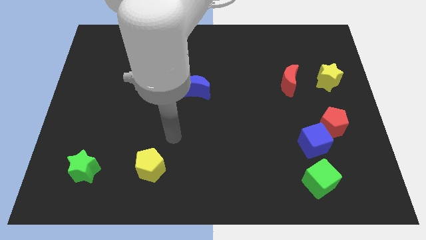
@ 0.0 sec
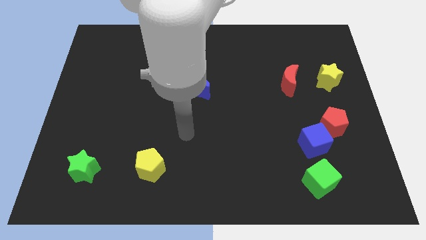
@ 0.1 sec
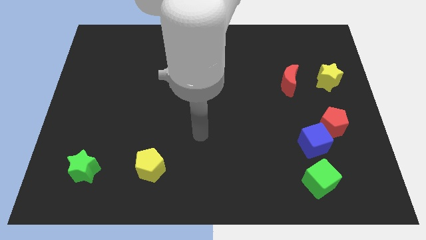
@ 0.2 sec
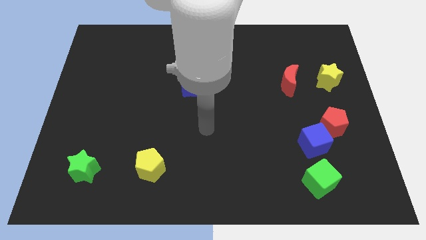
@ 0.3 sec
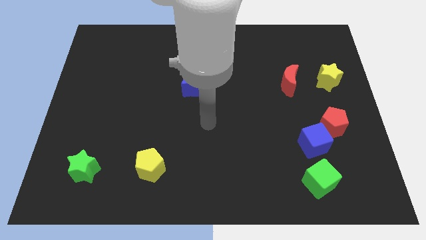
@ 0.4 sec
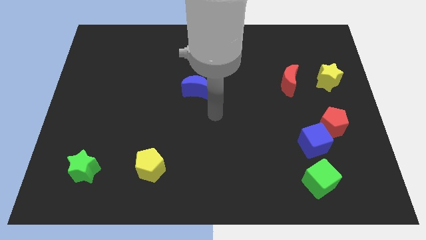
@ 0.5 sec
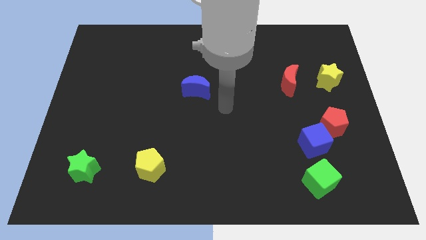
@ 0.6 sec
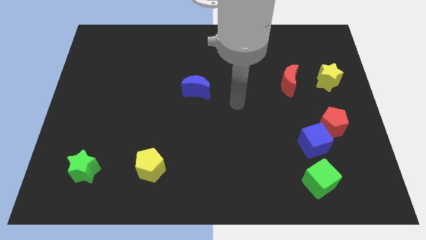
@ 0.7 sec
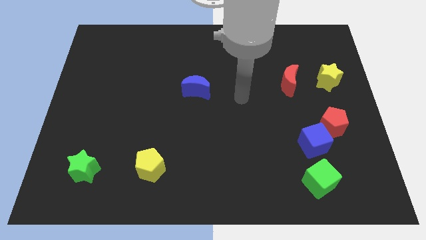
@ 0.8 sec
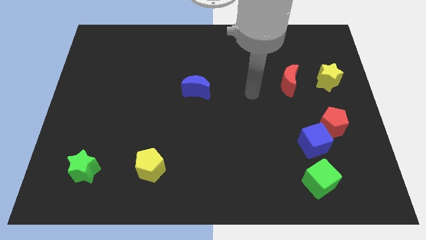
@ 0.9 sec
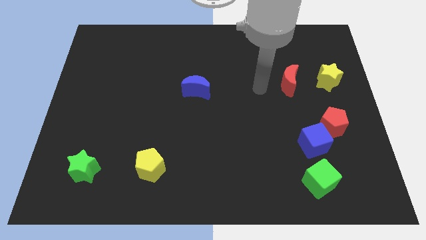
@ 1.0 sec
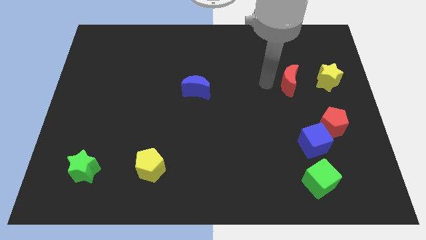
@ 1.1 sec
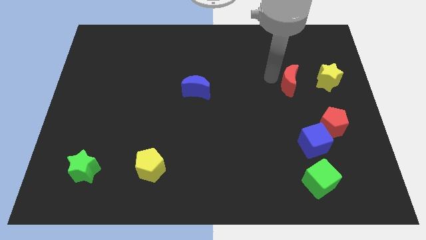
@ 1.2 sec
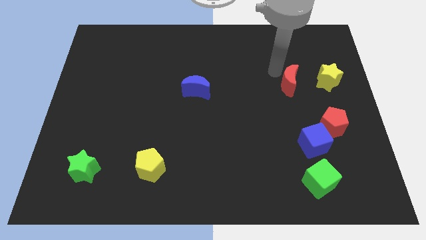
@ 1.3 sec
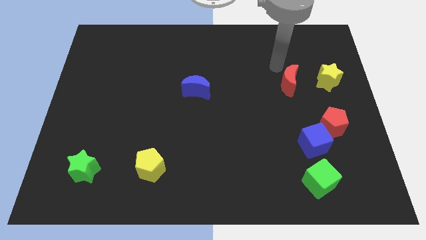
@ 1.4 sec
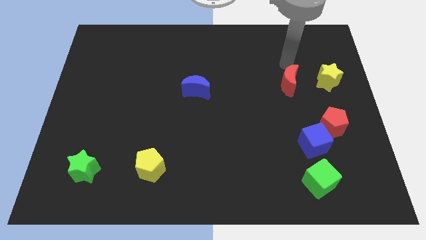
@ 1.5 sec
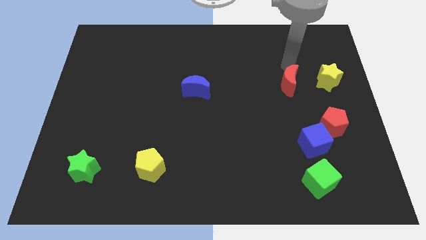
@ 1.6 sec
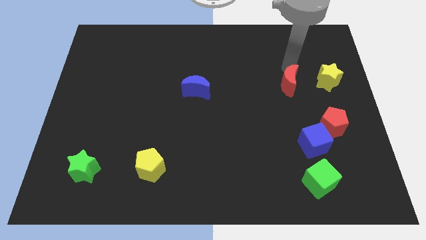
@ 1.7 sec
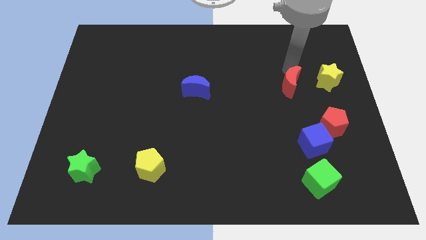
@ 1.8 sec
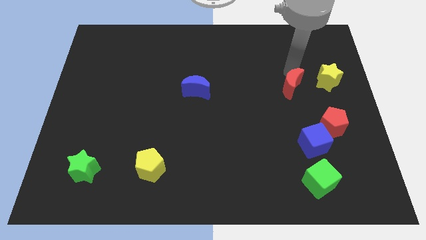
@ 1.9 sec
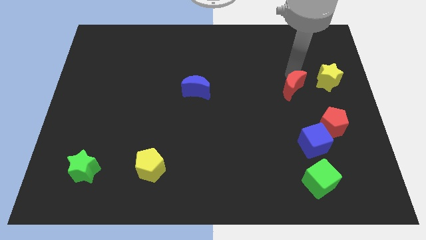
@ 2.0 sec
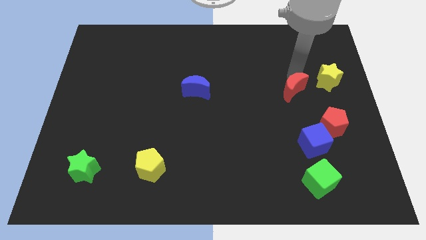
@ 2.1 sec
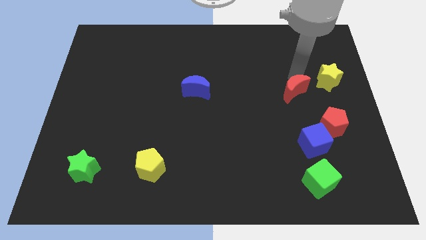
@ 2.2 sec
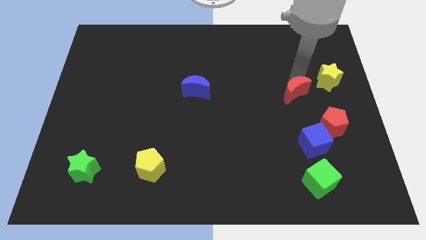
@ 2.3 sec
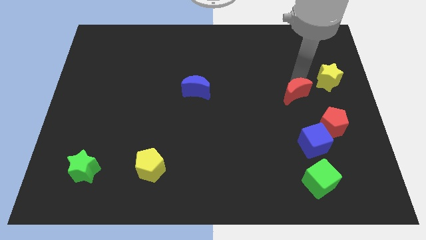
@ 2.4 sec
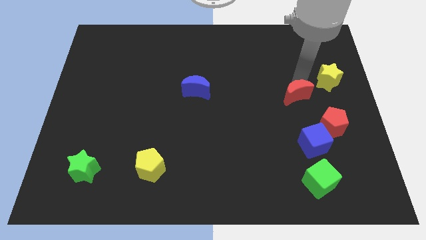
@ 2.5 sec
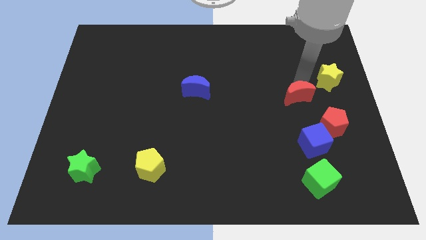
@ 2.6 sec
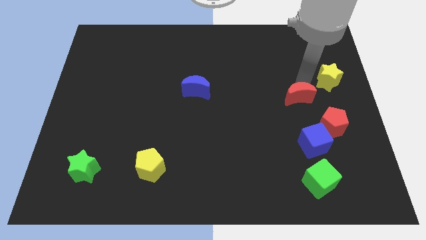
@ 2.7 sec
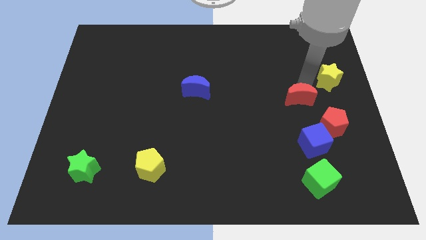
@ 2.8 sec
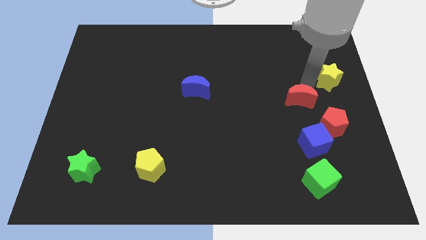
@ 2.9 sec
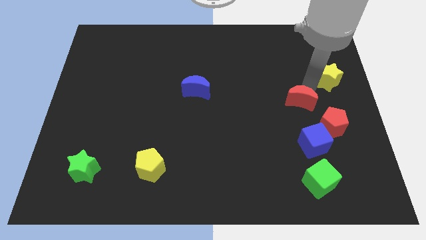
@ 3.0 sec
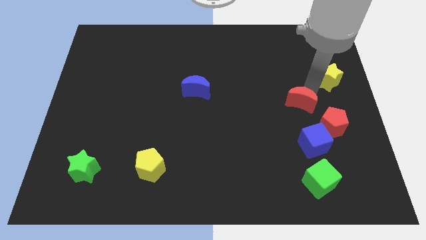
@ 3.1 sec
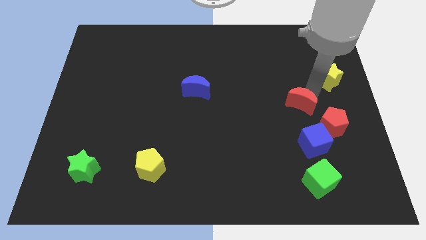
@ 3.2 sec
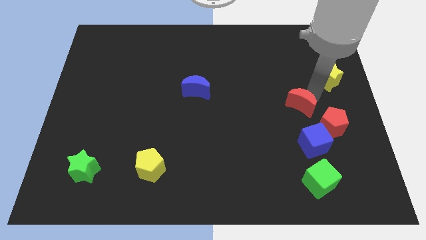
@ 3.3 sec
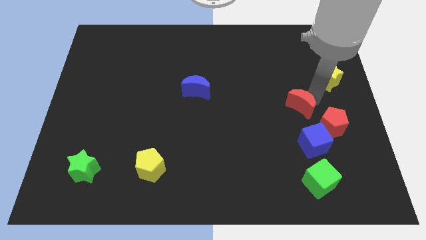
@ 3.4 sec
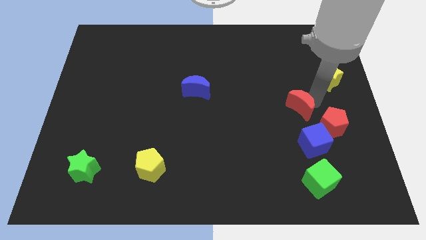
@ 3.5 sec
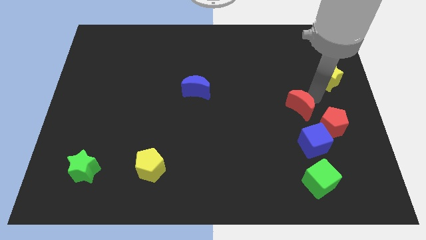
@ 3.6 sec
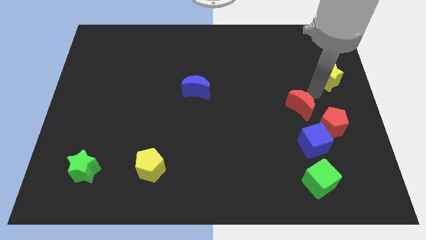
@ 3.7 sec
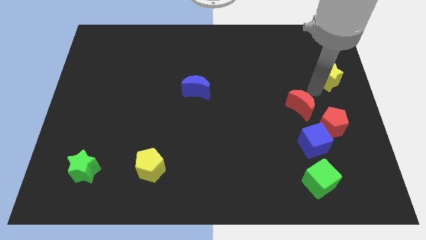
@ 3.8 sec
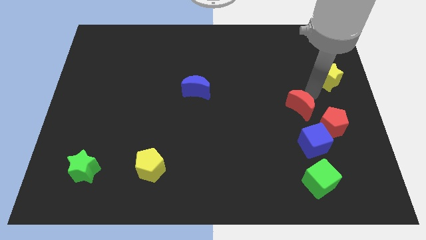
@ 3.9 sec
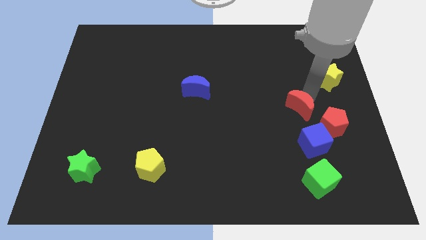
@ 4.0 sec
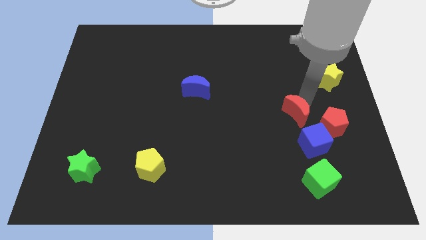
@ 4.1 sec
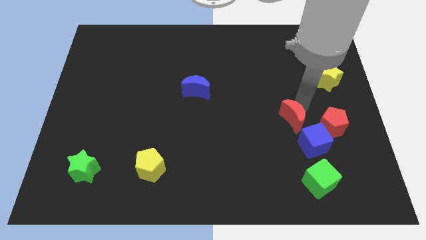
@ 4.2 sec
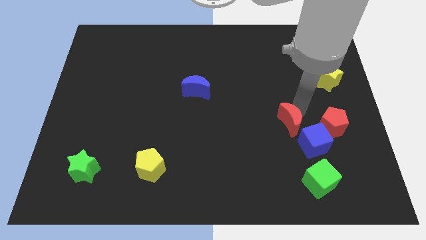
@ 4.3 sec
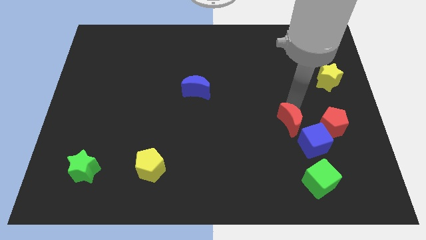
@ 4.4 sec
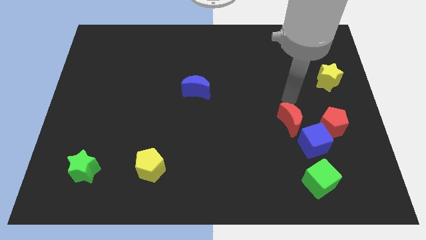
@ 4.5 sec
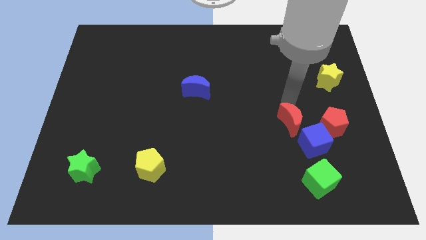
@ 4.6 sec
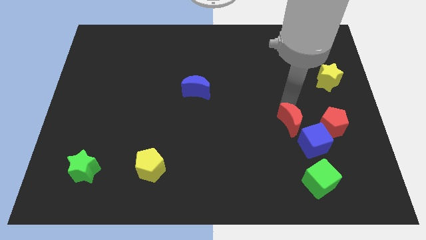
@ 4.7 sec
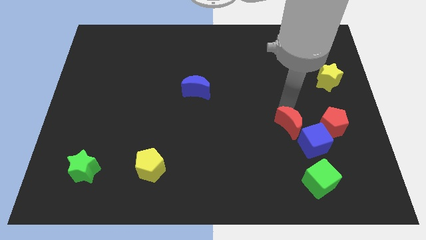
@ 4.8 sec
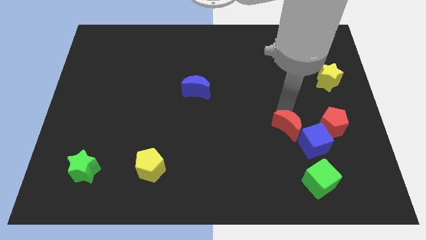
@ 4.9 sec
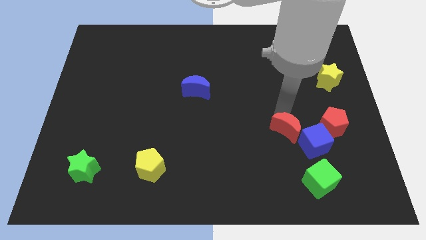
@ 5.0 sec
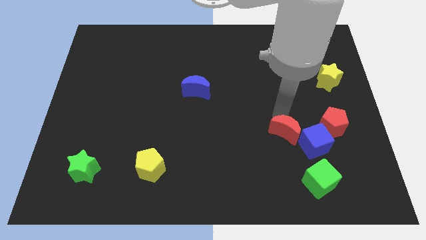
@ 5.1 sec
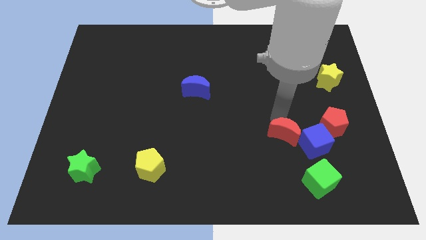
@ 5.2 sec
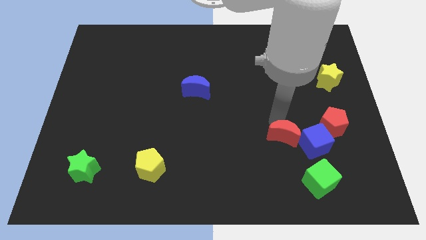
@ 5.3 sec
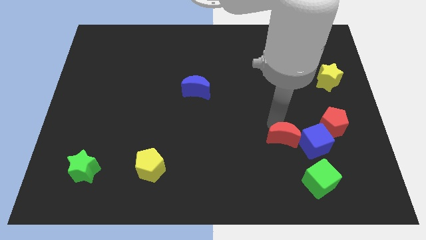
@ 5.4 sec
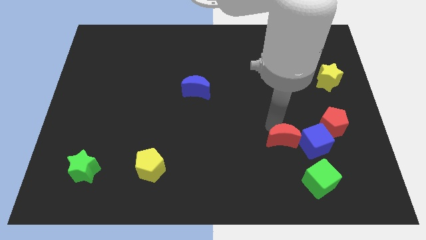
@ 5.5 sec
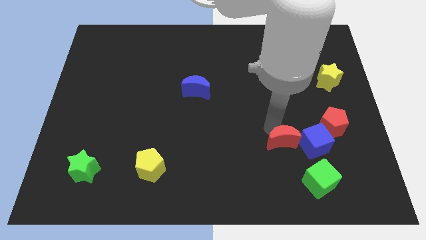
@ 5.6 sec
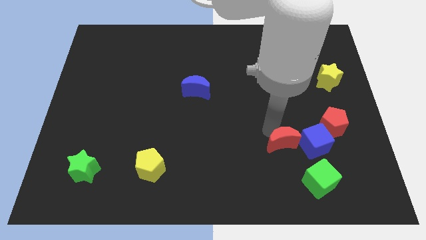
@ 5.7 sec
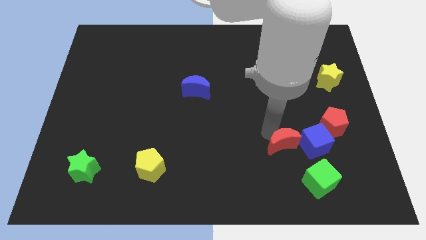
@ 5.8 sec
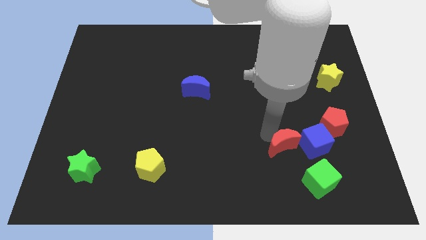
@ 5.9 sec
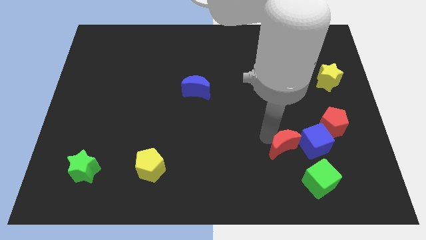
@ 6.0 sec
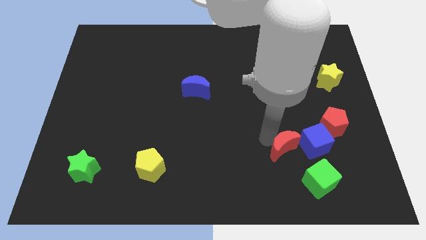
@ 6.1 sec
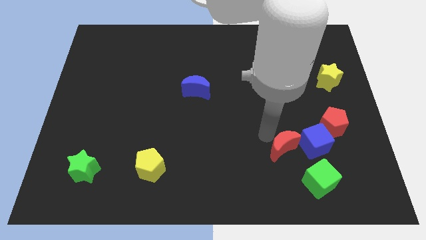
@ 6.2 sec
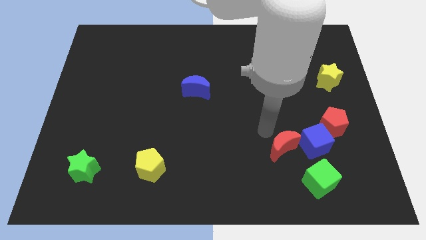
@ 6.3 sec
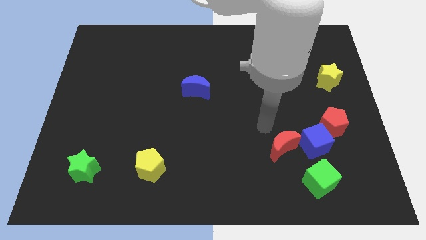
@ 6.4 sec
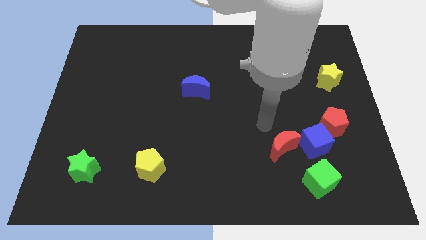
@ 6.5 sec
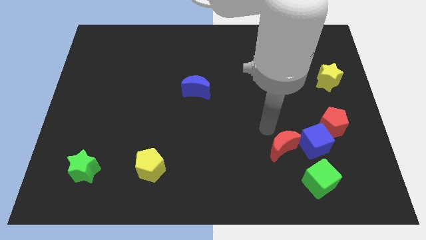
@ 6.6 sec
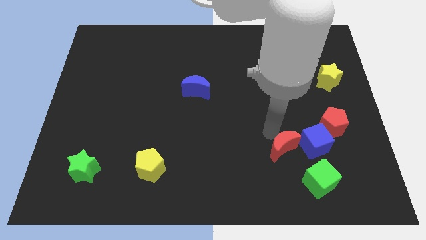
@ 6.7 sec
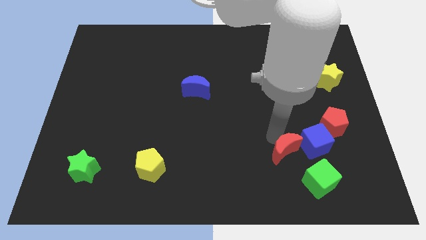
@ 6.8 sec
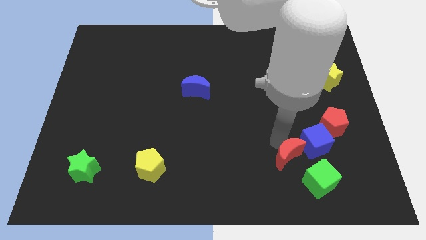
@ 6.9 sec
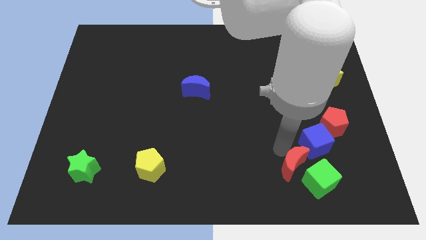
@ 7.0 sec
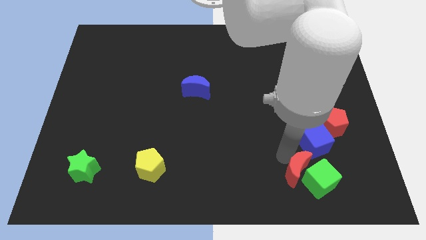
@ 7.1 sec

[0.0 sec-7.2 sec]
put the red moon close to the green cube
